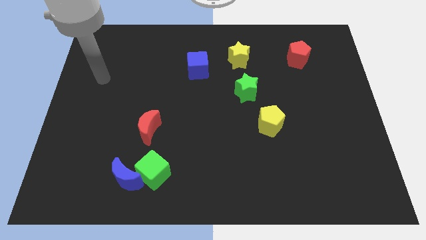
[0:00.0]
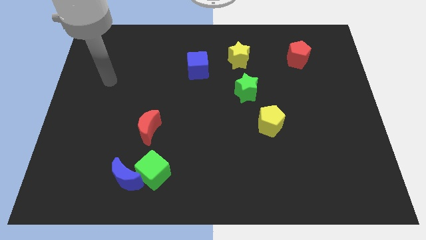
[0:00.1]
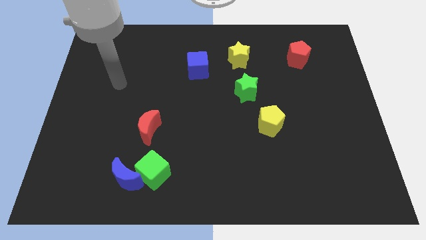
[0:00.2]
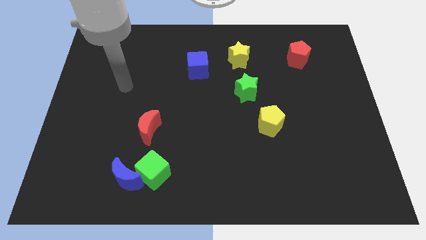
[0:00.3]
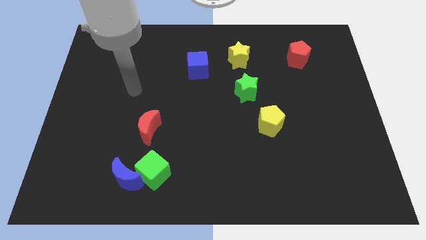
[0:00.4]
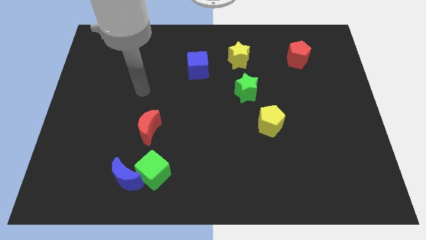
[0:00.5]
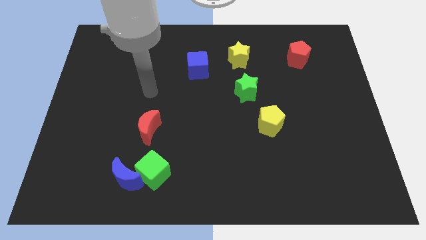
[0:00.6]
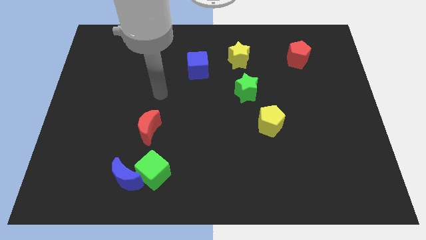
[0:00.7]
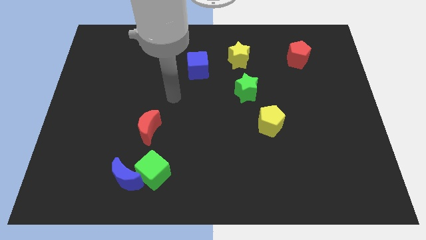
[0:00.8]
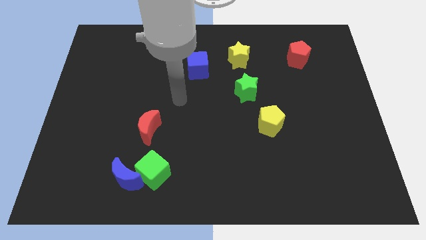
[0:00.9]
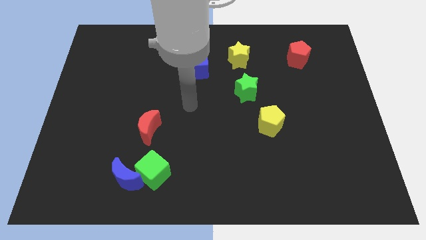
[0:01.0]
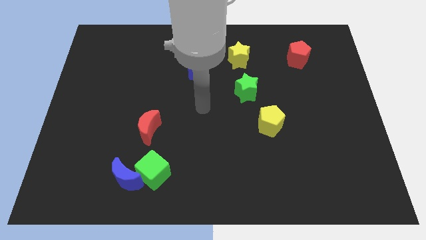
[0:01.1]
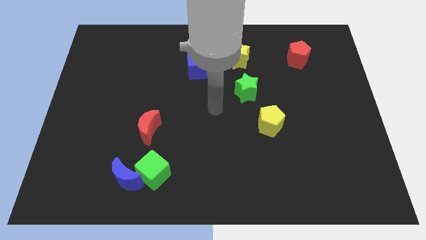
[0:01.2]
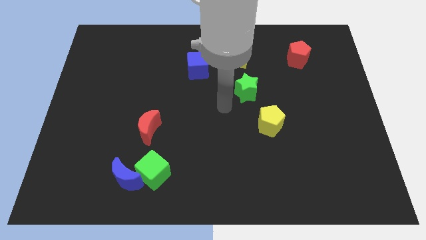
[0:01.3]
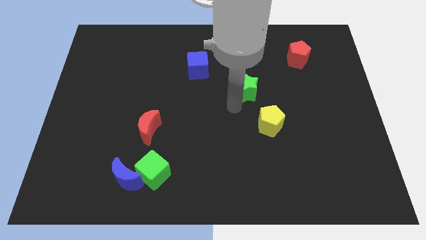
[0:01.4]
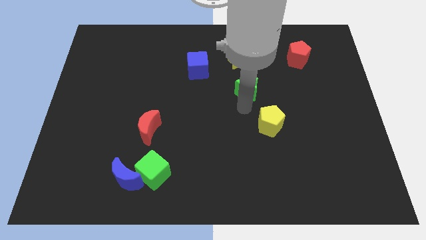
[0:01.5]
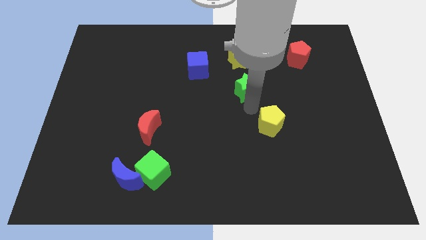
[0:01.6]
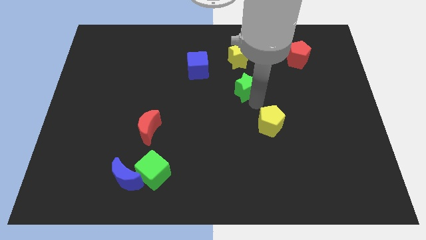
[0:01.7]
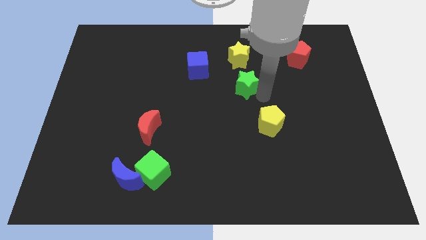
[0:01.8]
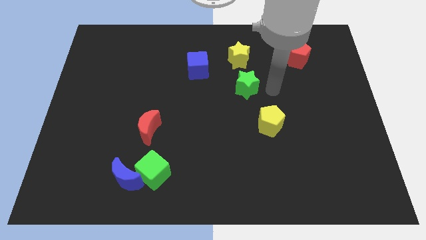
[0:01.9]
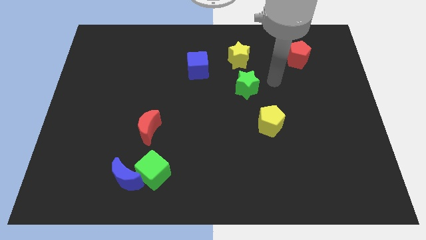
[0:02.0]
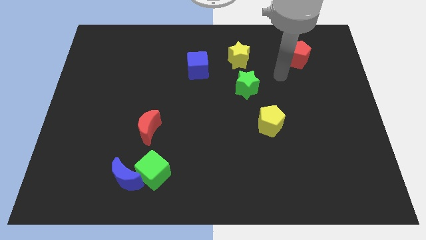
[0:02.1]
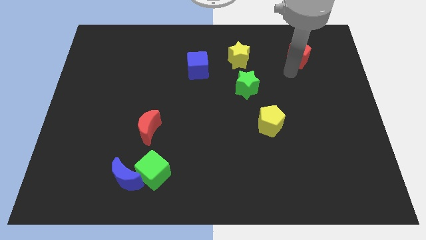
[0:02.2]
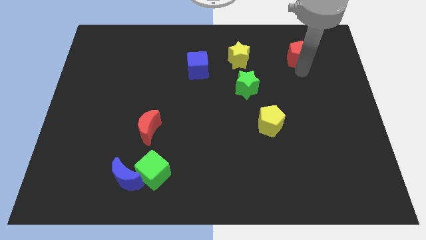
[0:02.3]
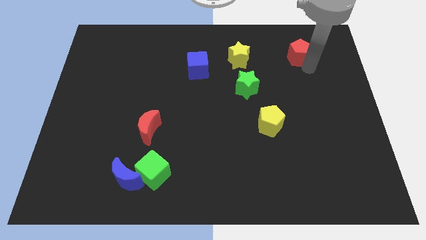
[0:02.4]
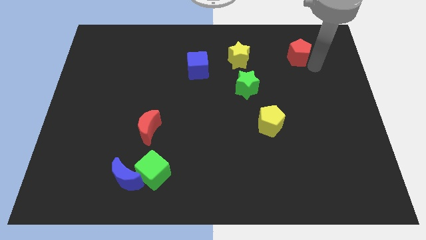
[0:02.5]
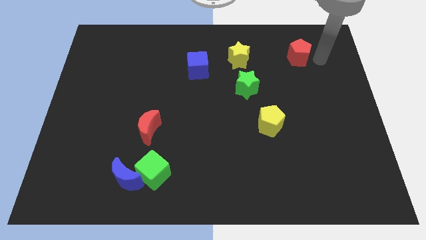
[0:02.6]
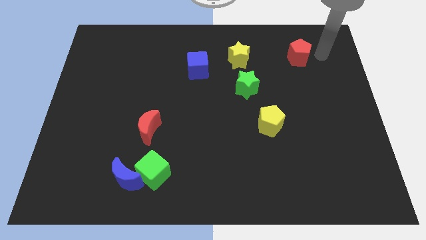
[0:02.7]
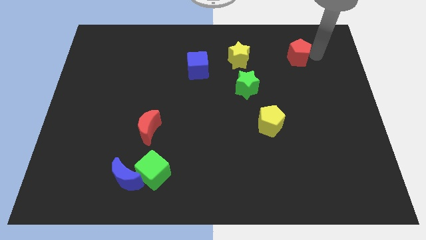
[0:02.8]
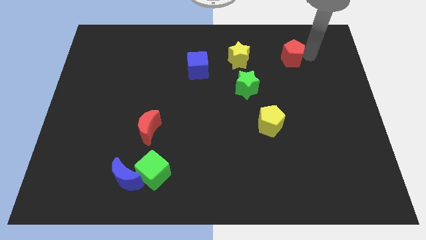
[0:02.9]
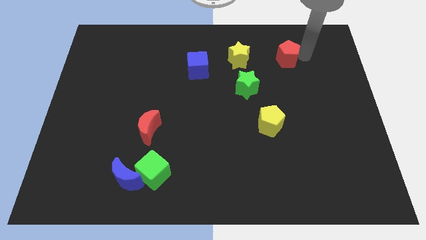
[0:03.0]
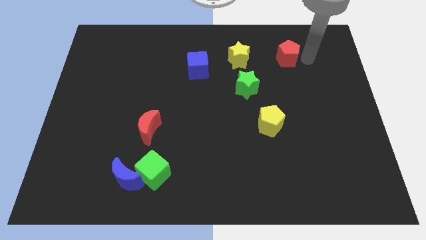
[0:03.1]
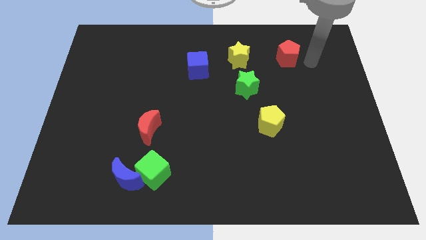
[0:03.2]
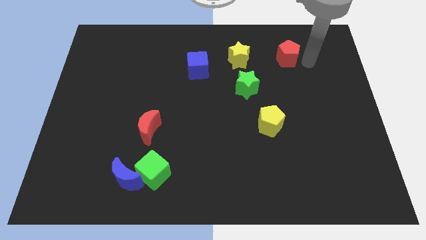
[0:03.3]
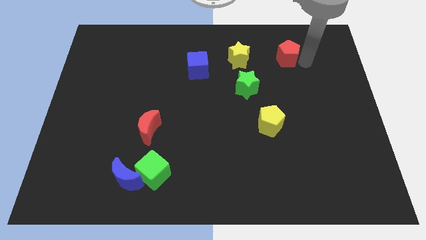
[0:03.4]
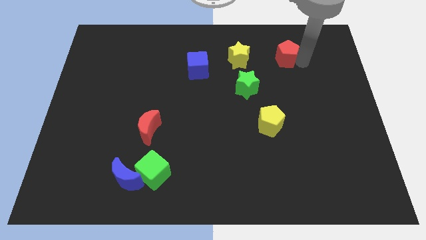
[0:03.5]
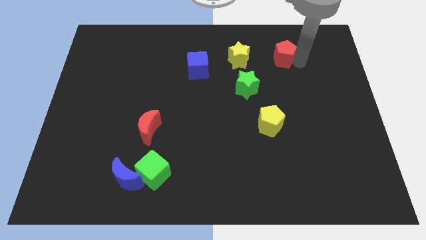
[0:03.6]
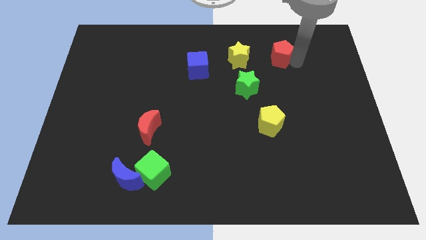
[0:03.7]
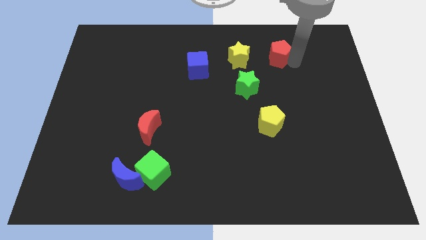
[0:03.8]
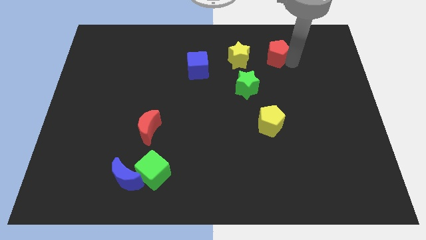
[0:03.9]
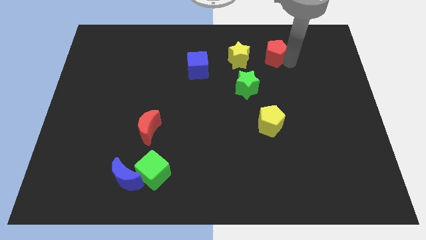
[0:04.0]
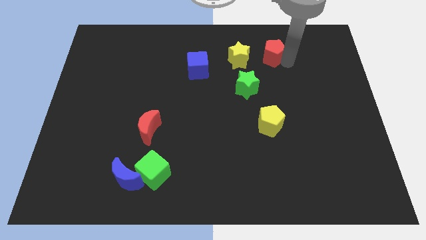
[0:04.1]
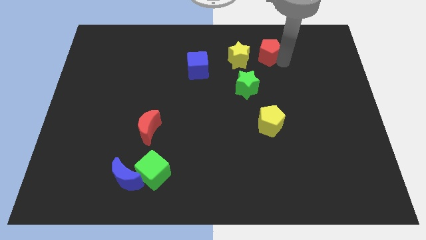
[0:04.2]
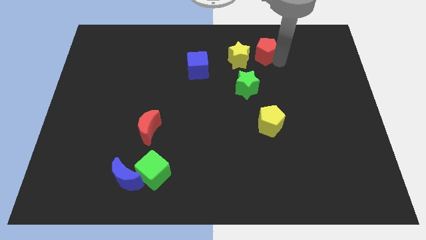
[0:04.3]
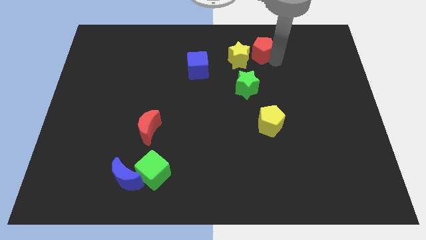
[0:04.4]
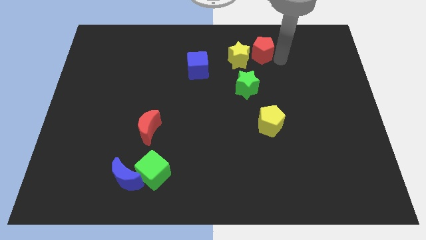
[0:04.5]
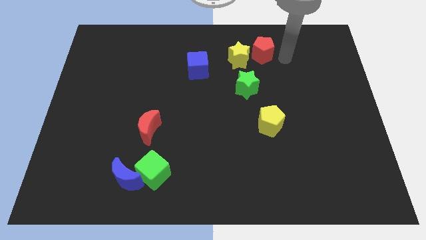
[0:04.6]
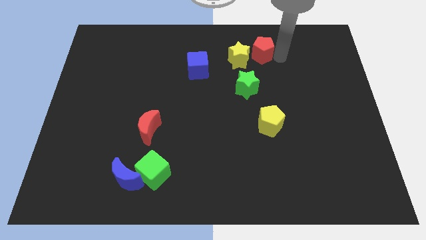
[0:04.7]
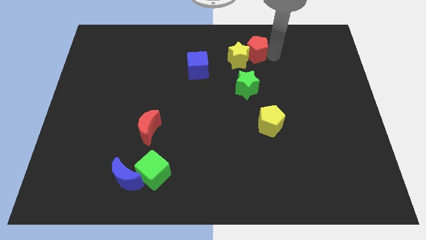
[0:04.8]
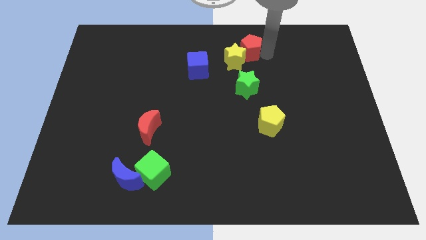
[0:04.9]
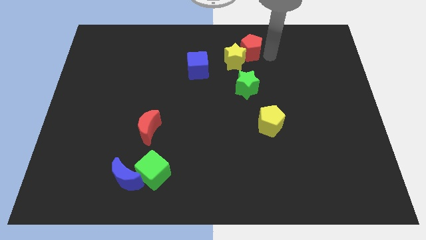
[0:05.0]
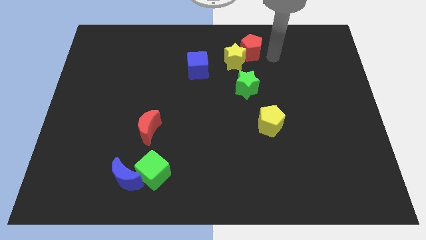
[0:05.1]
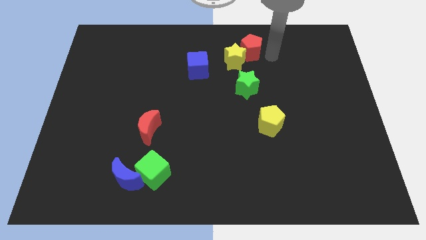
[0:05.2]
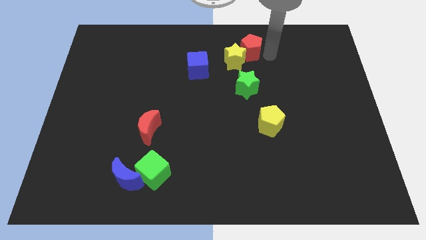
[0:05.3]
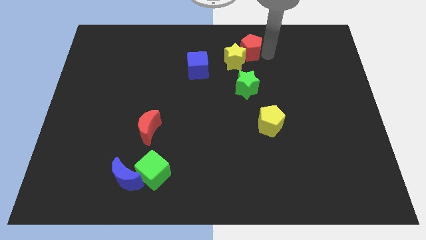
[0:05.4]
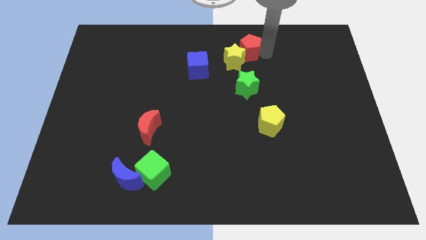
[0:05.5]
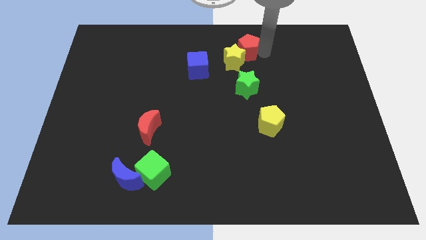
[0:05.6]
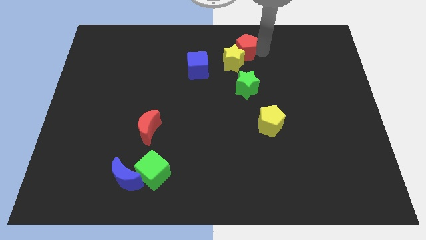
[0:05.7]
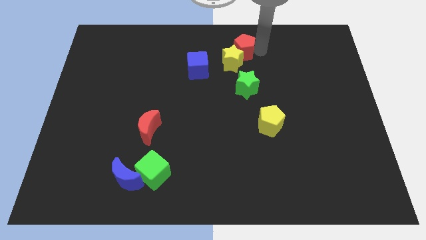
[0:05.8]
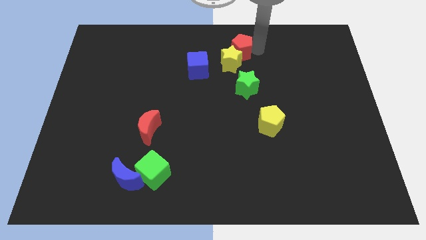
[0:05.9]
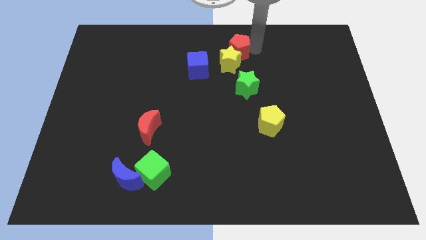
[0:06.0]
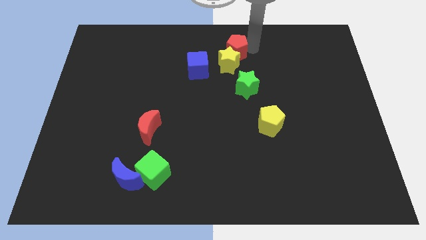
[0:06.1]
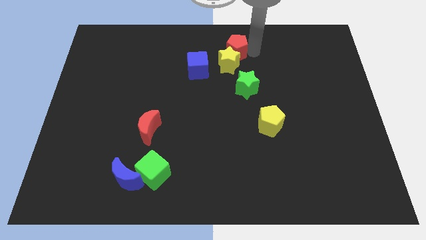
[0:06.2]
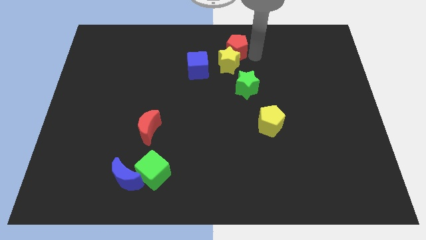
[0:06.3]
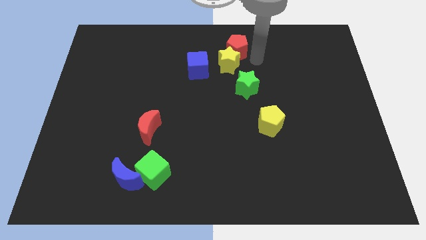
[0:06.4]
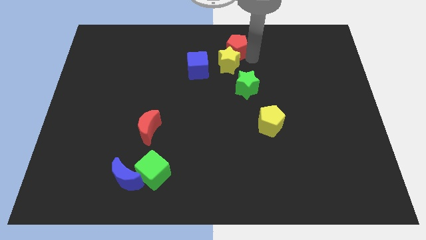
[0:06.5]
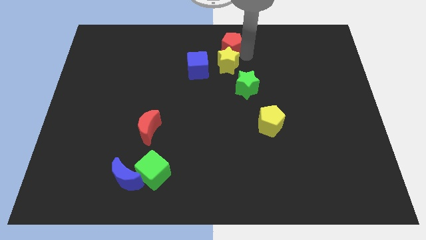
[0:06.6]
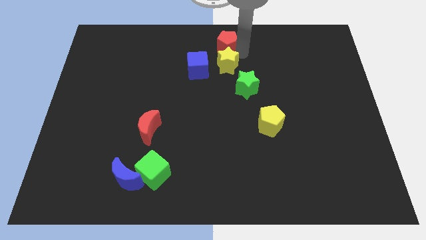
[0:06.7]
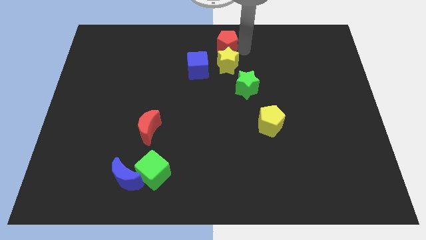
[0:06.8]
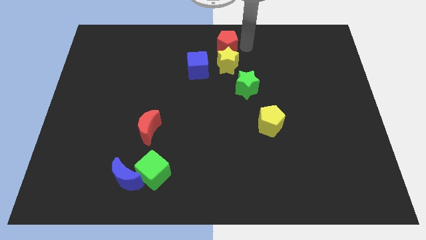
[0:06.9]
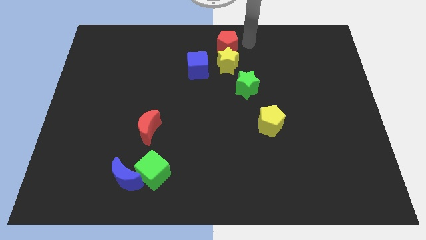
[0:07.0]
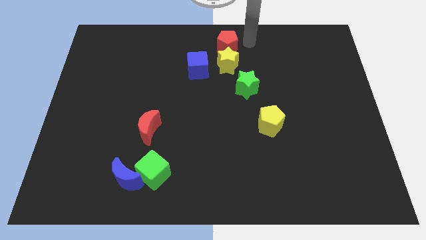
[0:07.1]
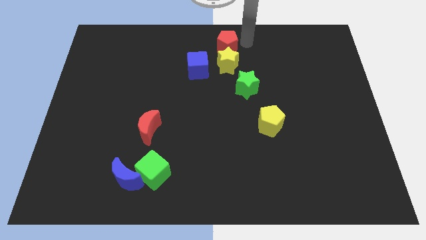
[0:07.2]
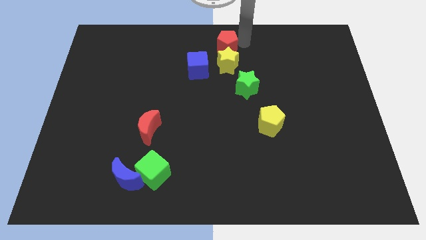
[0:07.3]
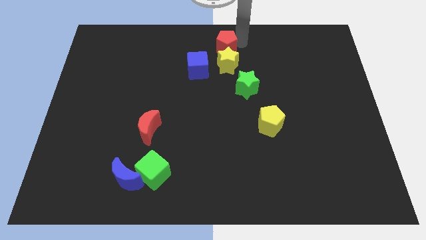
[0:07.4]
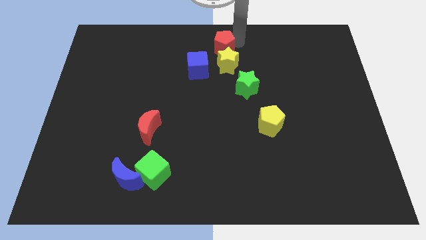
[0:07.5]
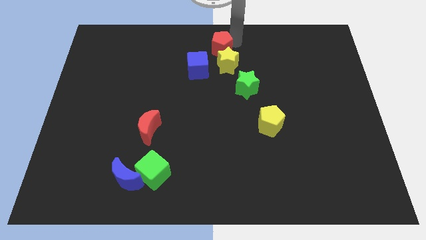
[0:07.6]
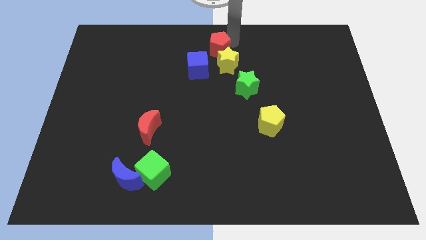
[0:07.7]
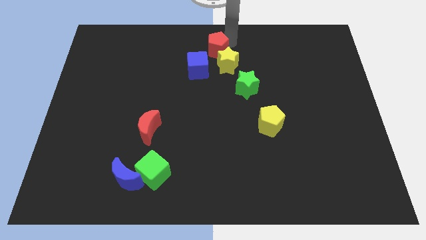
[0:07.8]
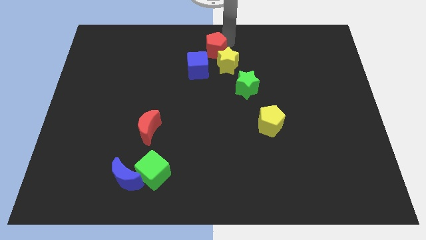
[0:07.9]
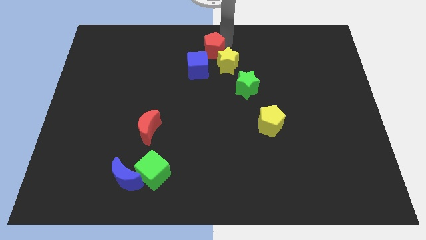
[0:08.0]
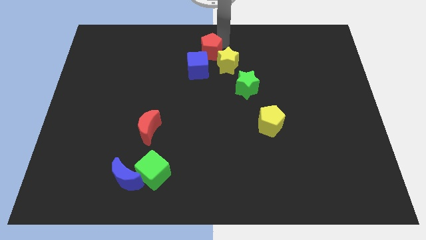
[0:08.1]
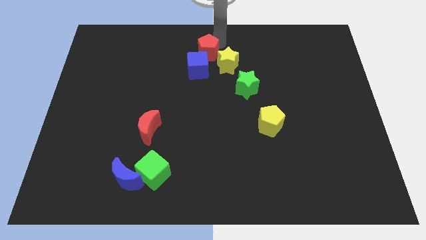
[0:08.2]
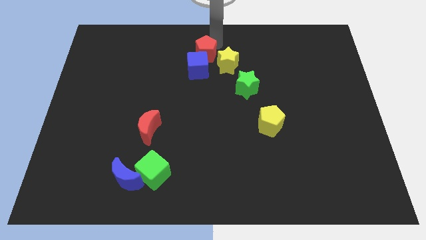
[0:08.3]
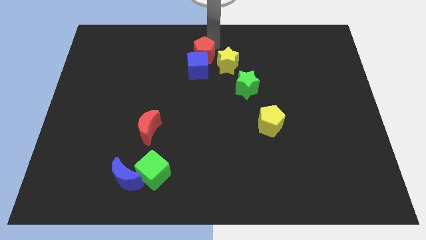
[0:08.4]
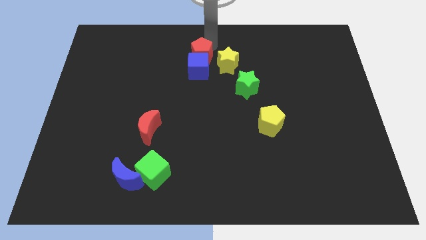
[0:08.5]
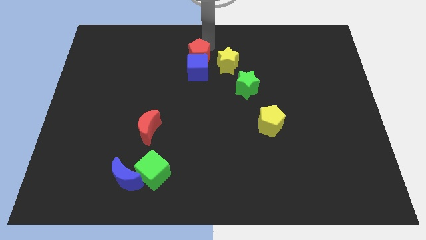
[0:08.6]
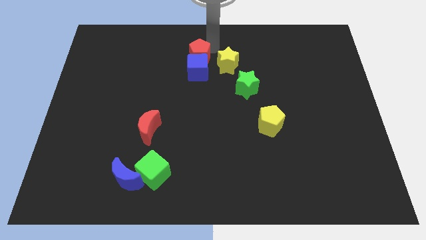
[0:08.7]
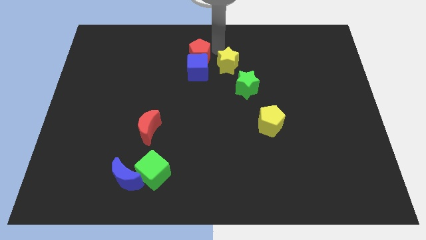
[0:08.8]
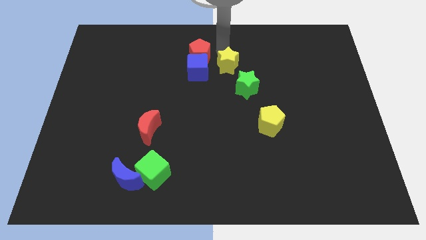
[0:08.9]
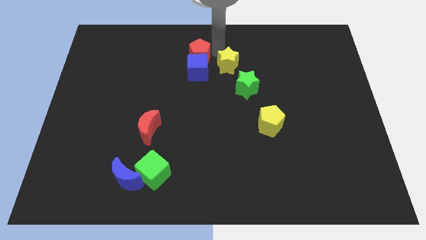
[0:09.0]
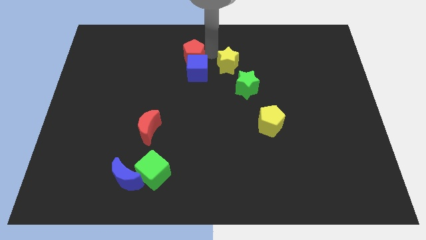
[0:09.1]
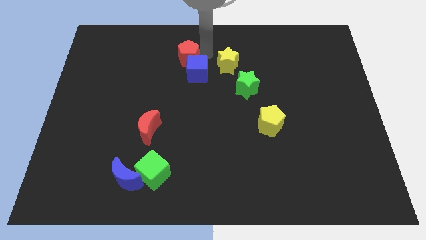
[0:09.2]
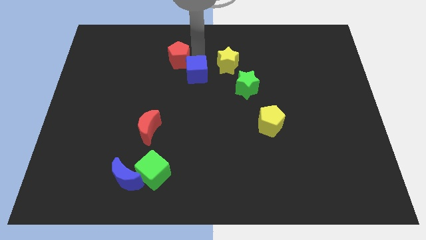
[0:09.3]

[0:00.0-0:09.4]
slide the red pentagon just left of the blue cube
